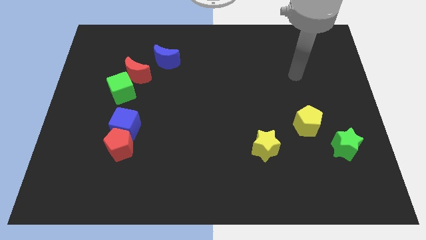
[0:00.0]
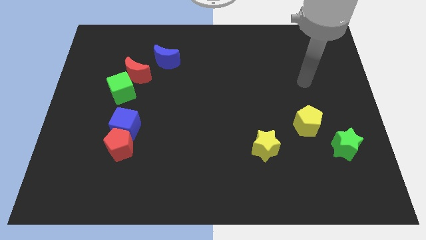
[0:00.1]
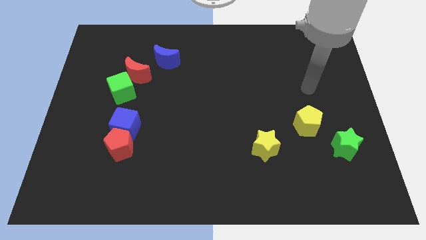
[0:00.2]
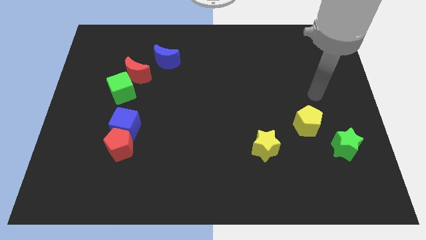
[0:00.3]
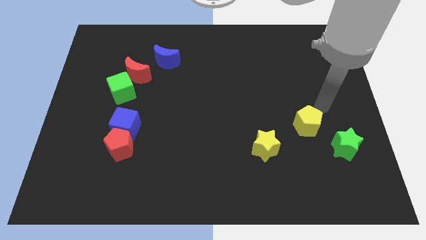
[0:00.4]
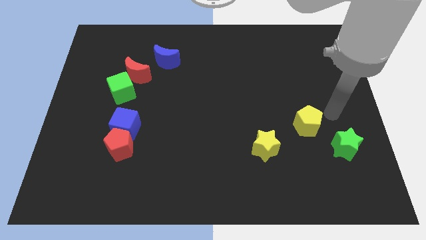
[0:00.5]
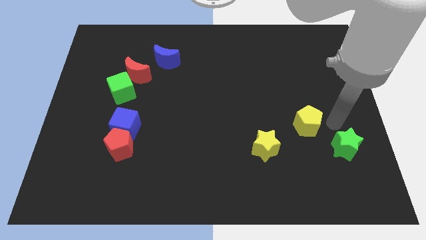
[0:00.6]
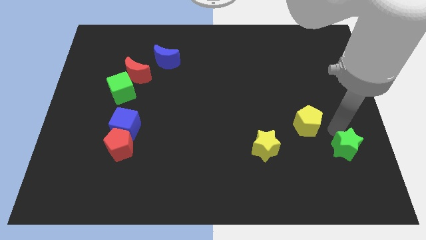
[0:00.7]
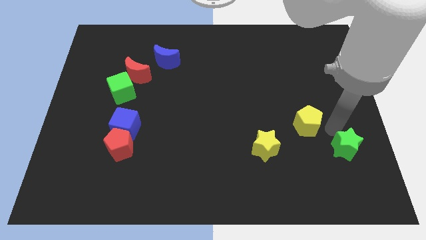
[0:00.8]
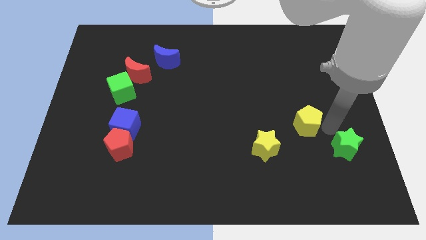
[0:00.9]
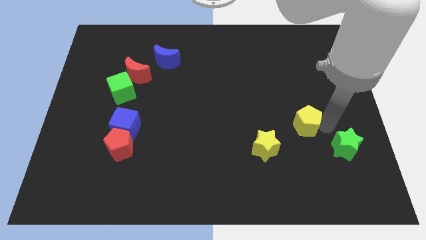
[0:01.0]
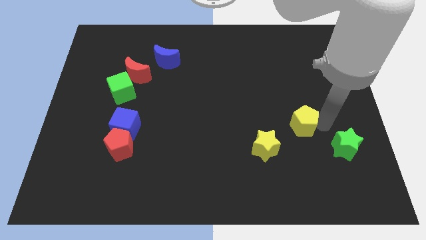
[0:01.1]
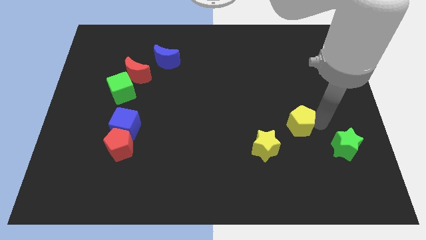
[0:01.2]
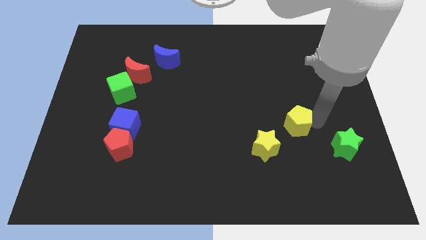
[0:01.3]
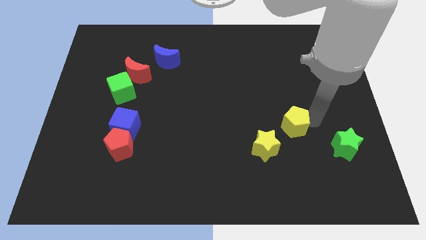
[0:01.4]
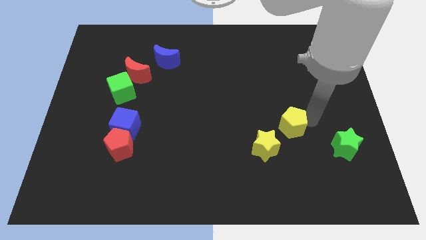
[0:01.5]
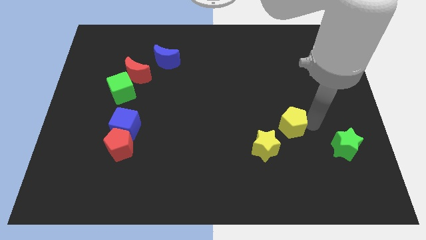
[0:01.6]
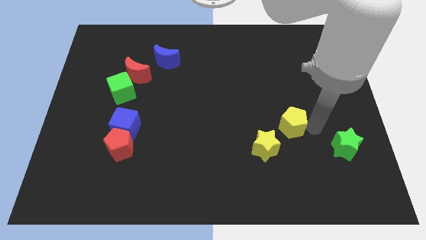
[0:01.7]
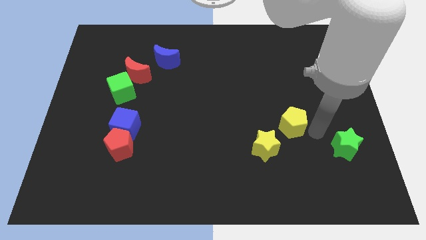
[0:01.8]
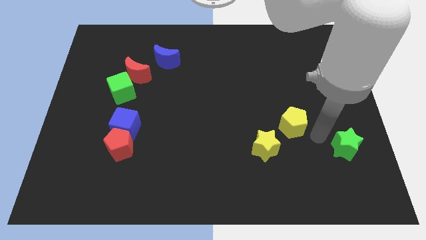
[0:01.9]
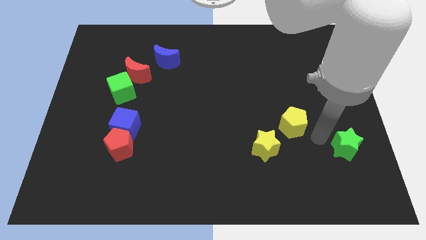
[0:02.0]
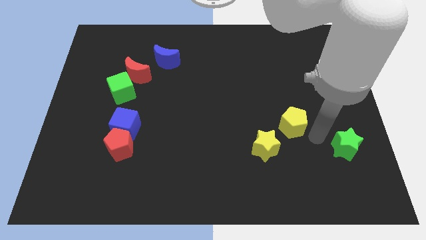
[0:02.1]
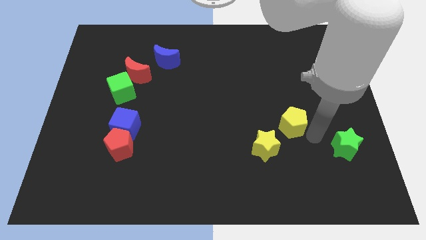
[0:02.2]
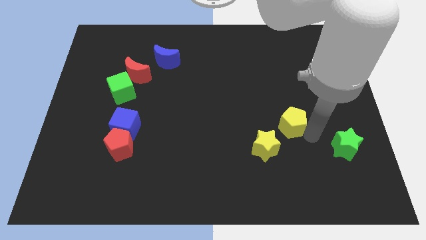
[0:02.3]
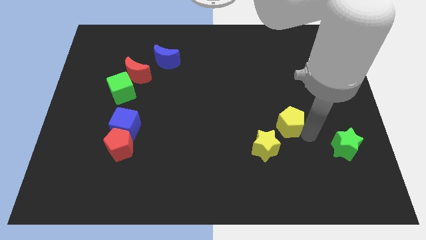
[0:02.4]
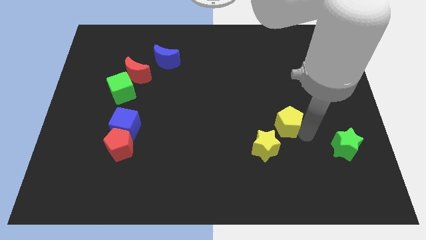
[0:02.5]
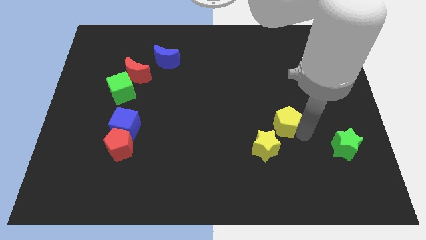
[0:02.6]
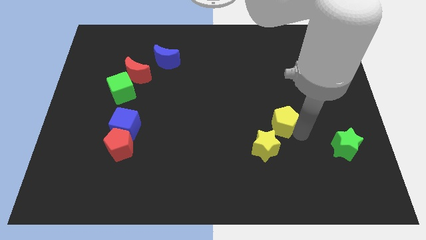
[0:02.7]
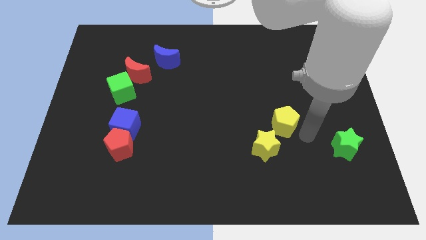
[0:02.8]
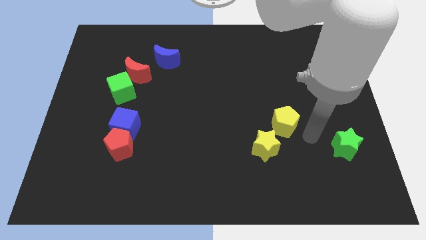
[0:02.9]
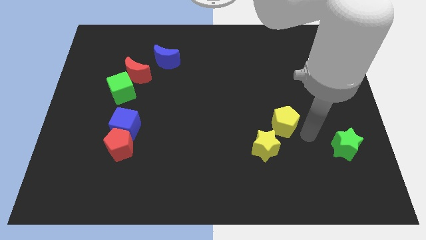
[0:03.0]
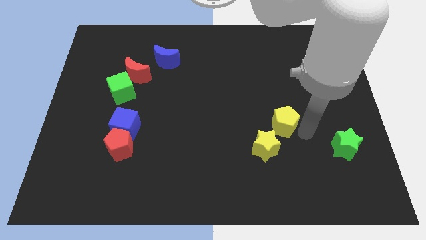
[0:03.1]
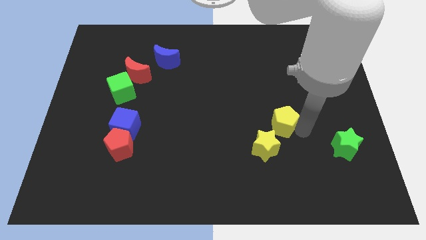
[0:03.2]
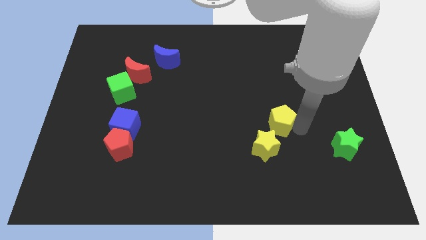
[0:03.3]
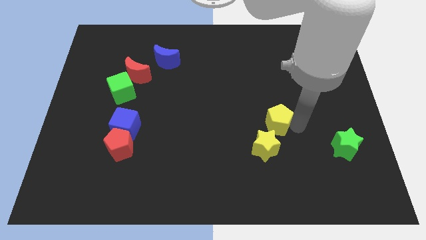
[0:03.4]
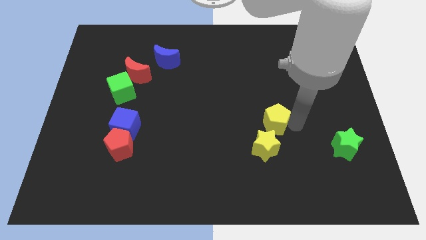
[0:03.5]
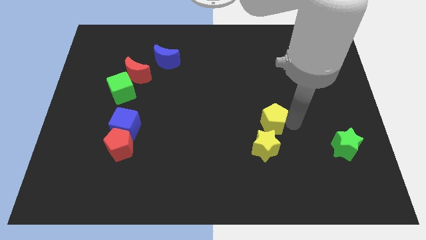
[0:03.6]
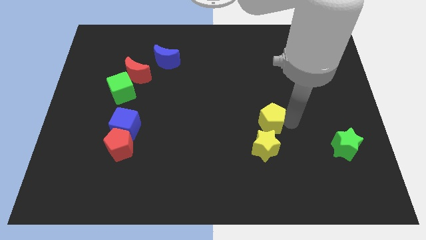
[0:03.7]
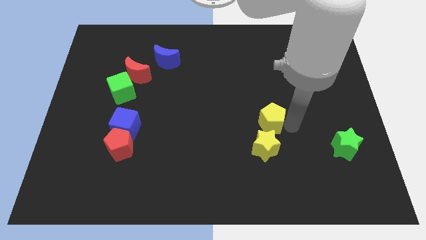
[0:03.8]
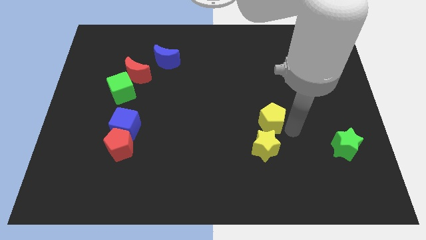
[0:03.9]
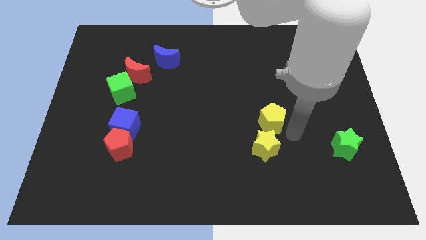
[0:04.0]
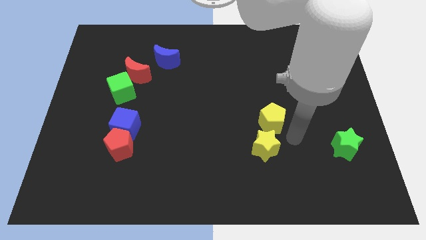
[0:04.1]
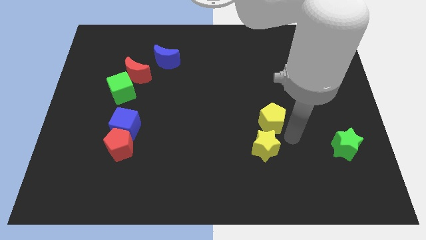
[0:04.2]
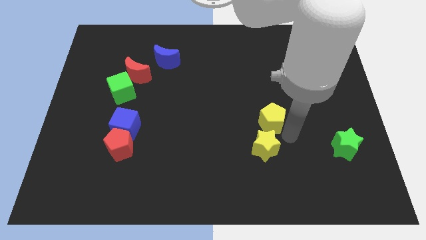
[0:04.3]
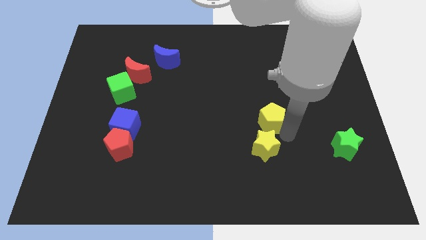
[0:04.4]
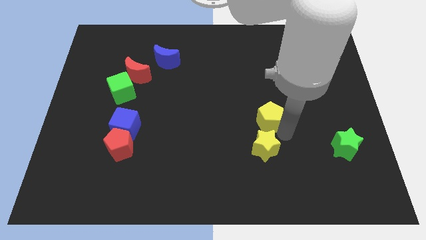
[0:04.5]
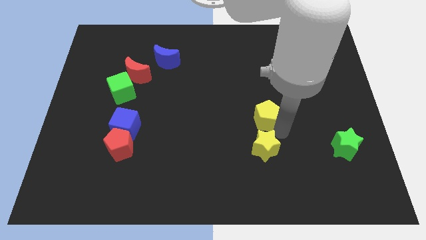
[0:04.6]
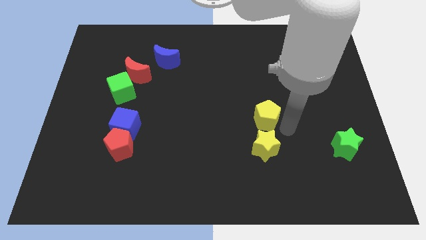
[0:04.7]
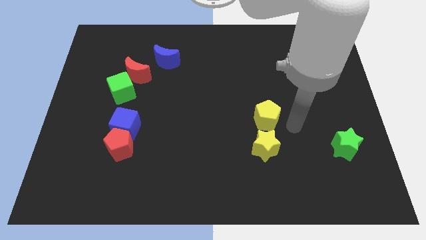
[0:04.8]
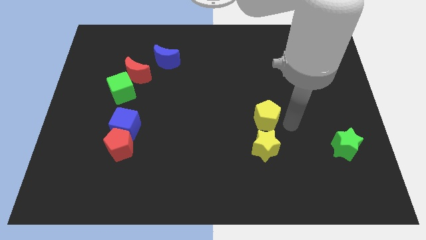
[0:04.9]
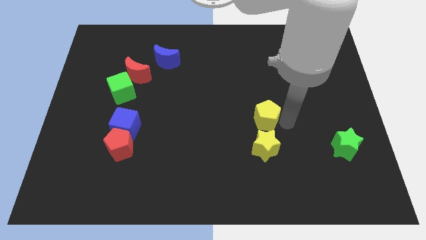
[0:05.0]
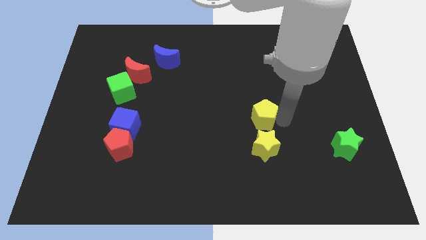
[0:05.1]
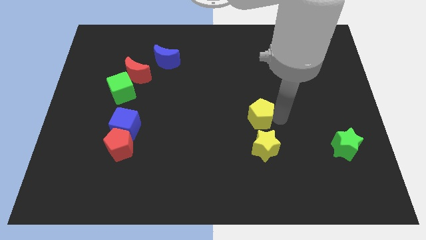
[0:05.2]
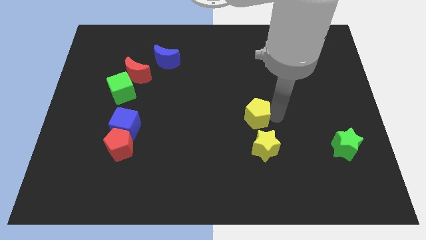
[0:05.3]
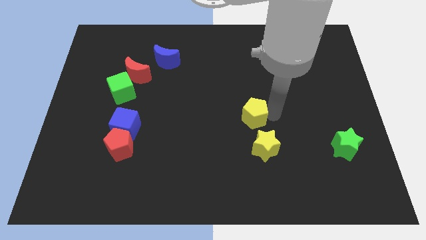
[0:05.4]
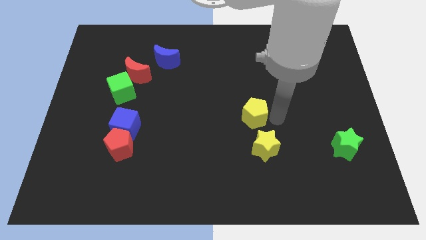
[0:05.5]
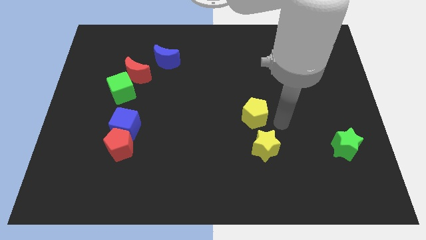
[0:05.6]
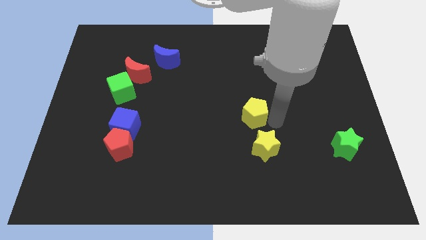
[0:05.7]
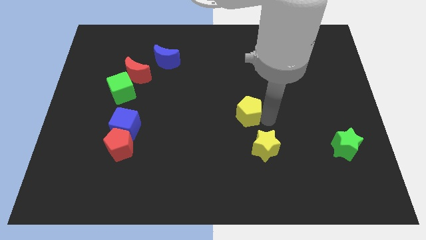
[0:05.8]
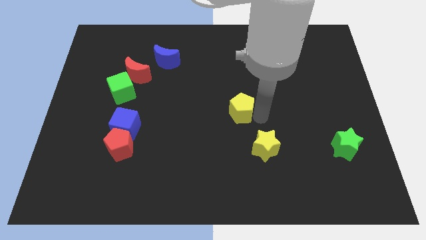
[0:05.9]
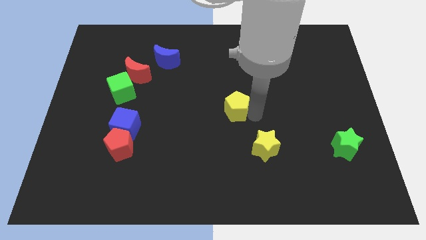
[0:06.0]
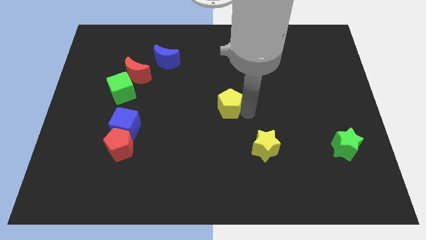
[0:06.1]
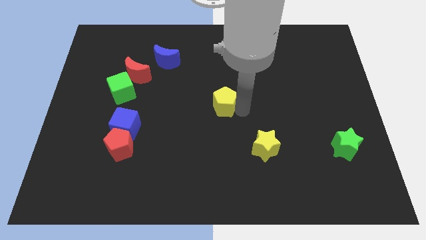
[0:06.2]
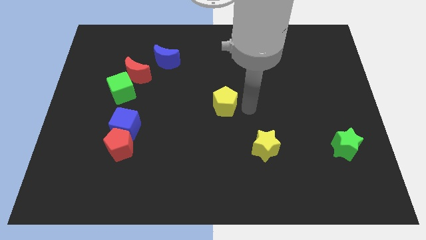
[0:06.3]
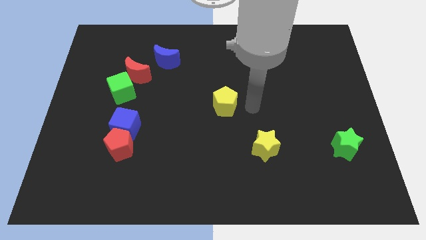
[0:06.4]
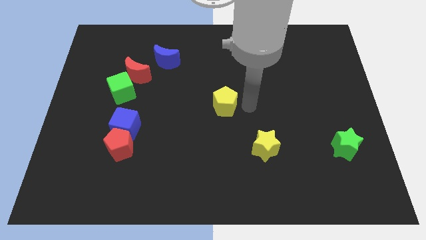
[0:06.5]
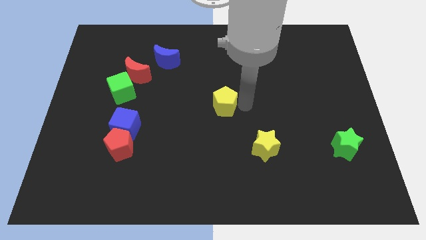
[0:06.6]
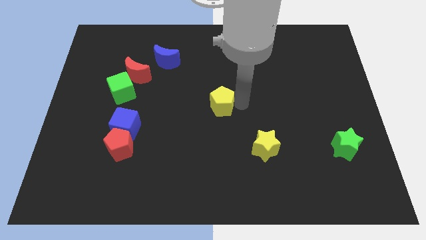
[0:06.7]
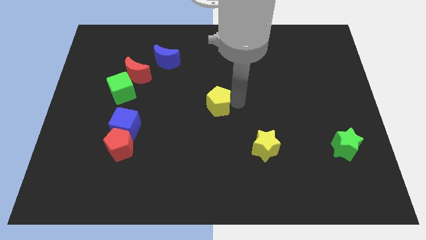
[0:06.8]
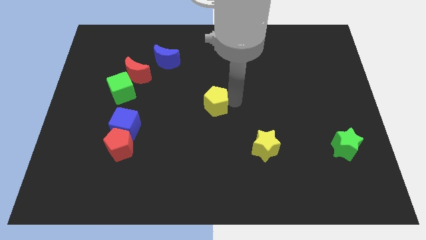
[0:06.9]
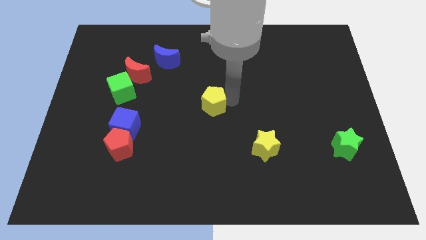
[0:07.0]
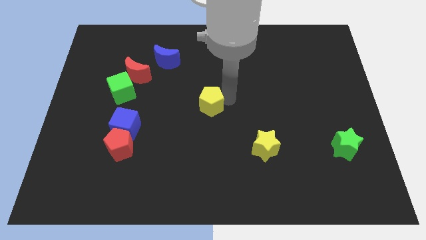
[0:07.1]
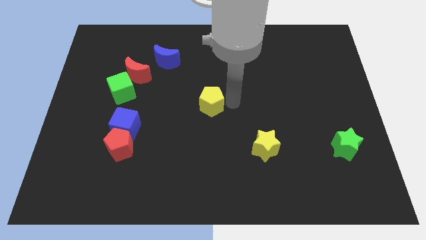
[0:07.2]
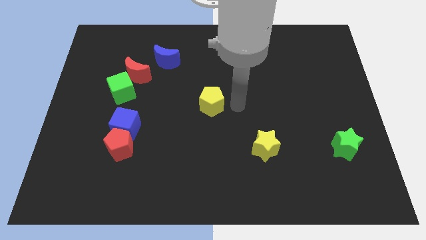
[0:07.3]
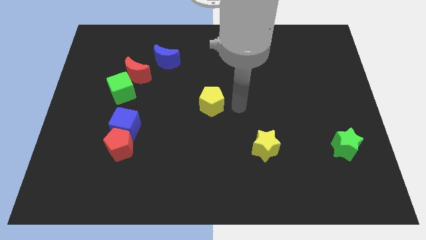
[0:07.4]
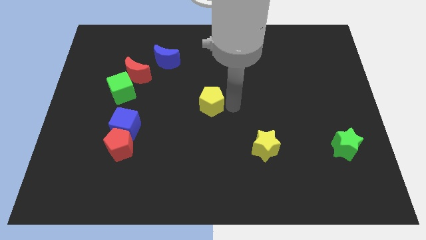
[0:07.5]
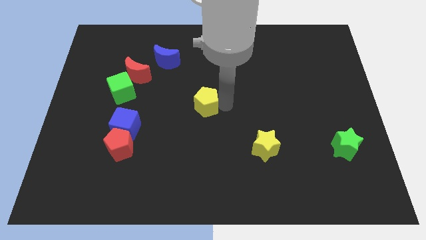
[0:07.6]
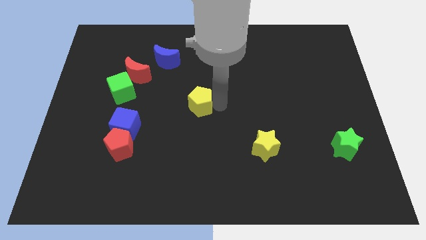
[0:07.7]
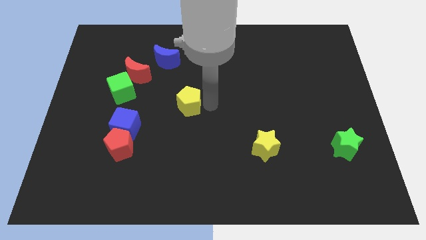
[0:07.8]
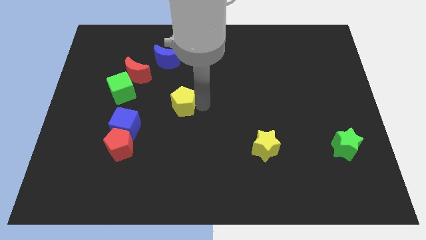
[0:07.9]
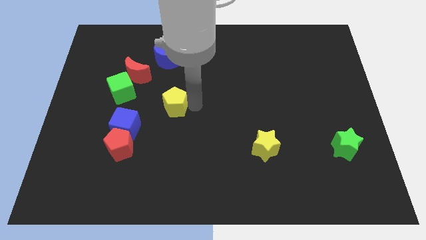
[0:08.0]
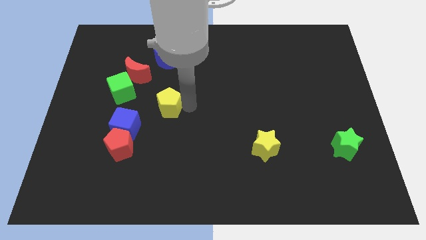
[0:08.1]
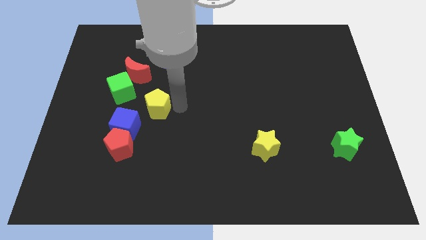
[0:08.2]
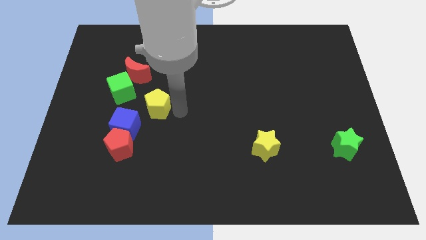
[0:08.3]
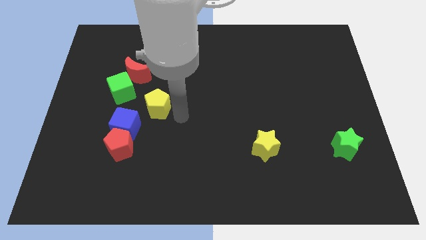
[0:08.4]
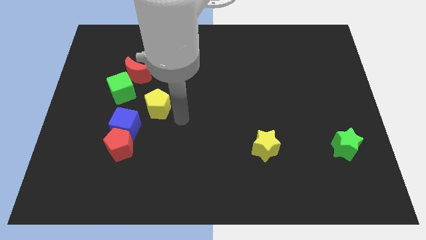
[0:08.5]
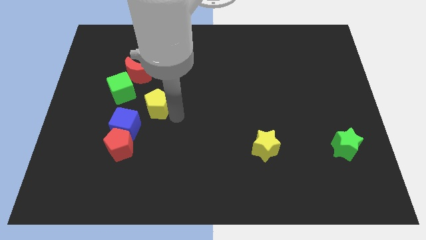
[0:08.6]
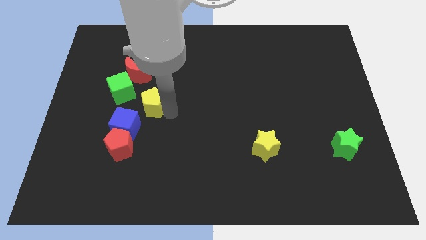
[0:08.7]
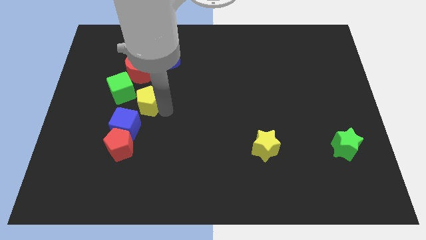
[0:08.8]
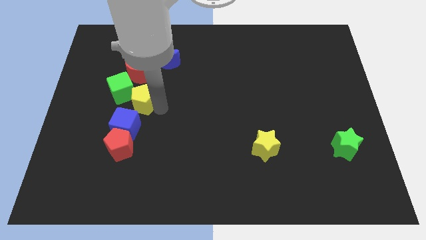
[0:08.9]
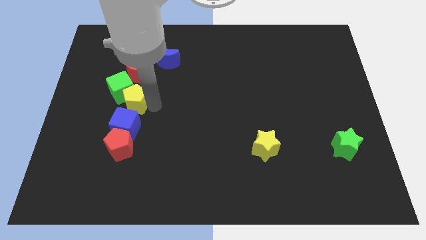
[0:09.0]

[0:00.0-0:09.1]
put the yellow pentagon to the green cube
